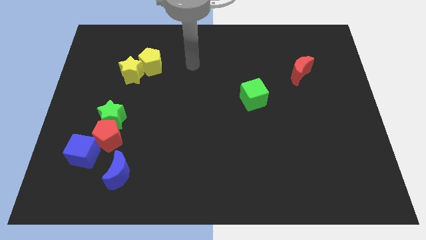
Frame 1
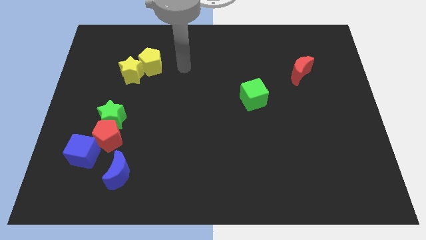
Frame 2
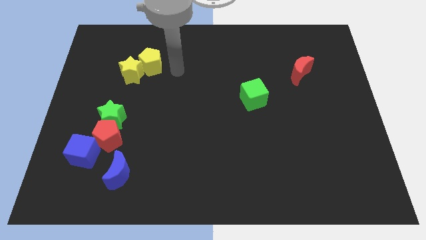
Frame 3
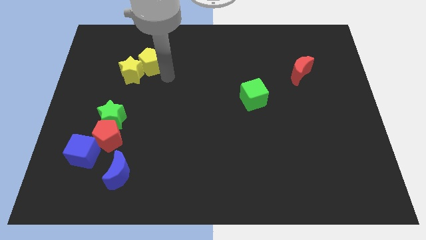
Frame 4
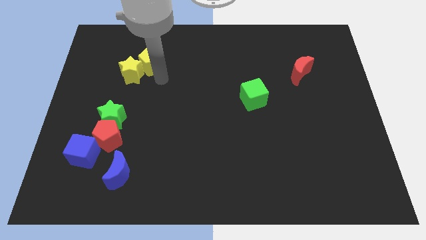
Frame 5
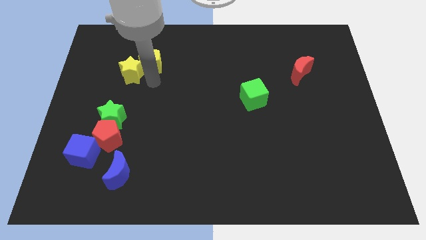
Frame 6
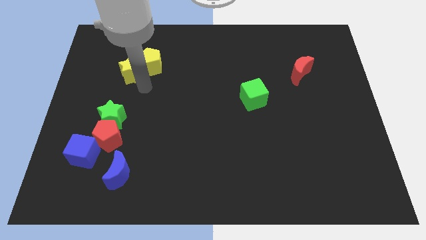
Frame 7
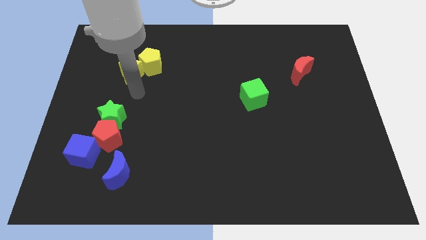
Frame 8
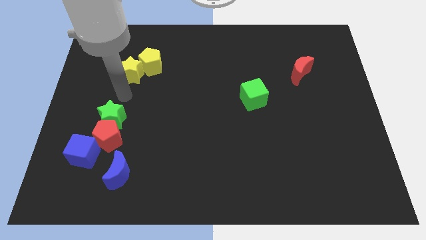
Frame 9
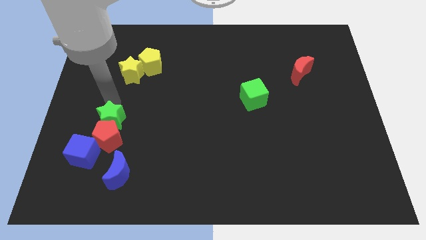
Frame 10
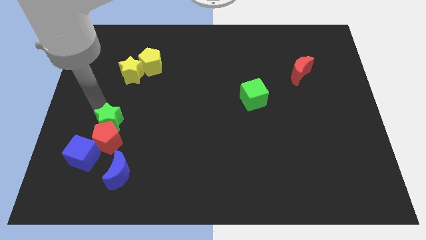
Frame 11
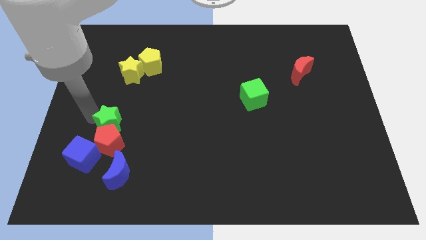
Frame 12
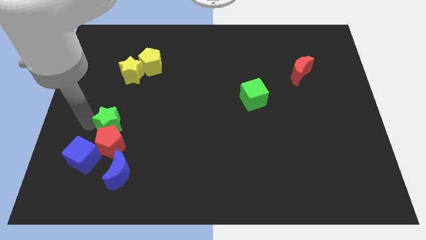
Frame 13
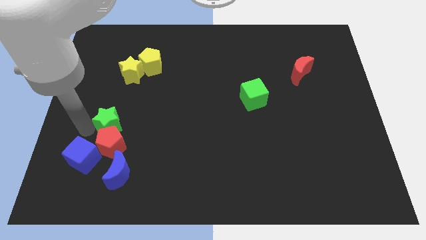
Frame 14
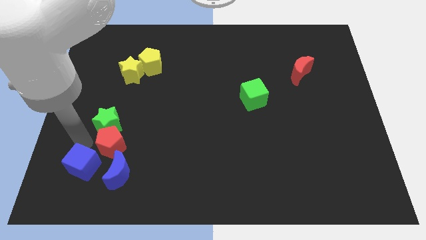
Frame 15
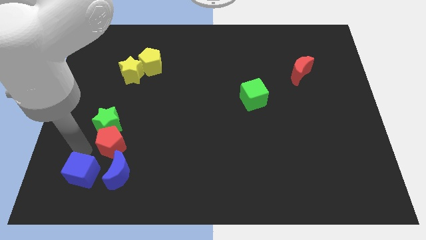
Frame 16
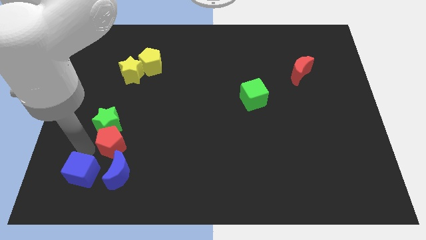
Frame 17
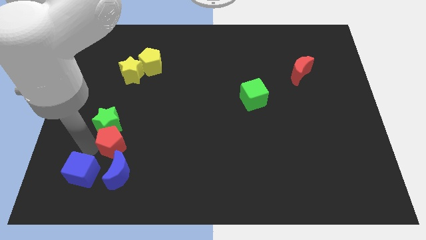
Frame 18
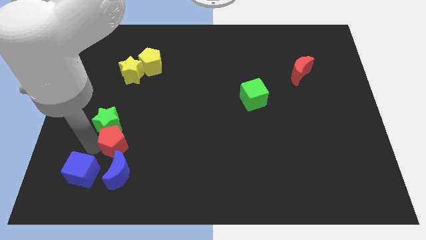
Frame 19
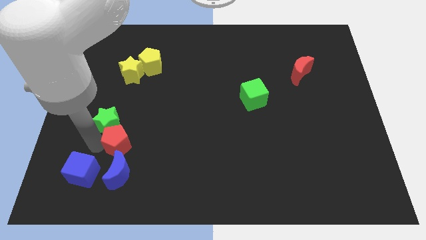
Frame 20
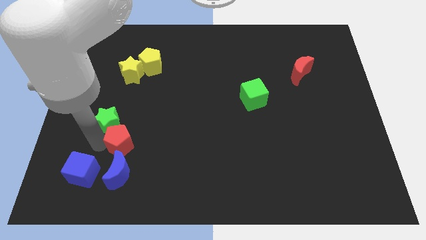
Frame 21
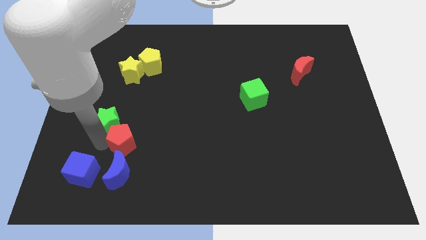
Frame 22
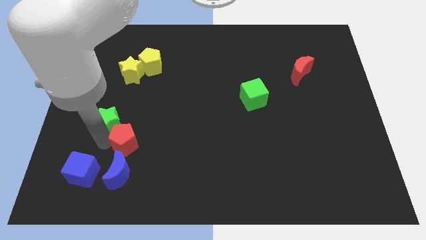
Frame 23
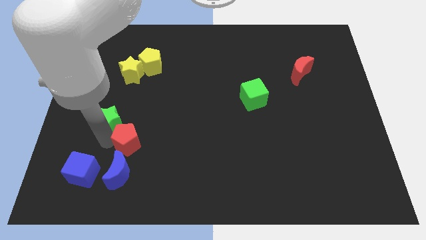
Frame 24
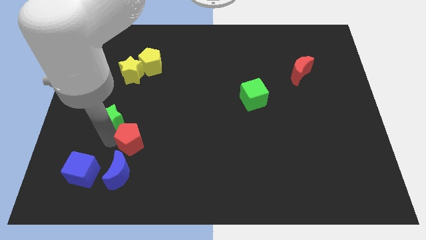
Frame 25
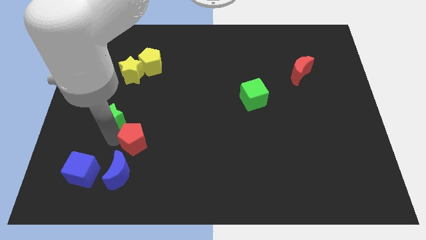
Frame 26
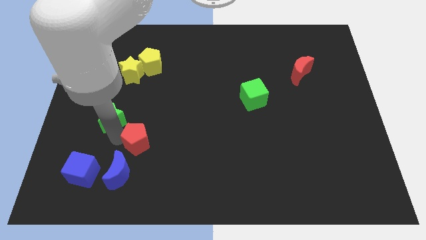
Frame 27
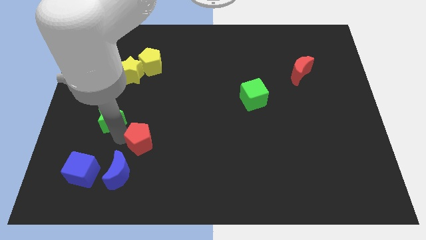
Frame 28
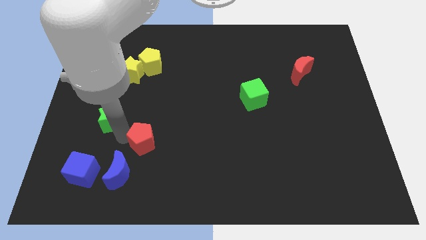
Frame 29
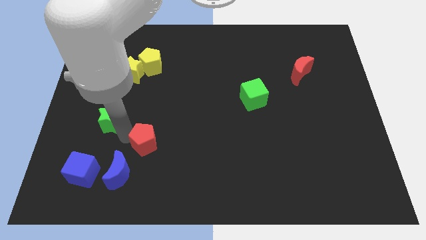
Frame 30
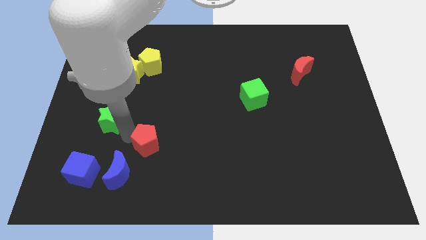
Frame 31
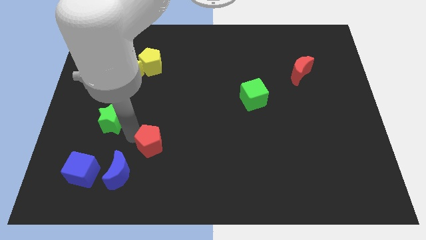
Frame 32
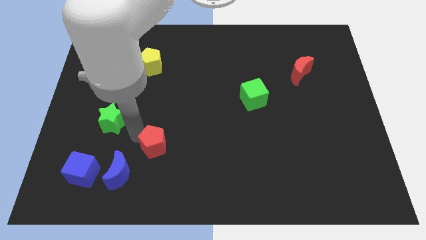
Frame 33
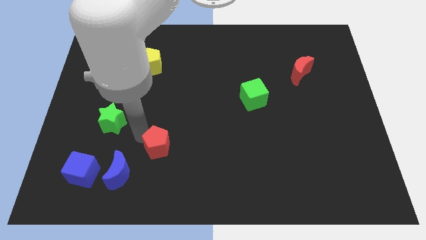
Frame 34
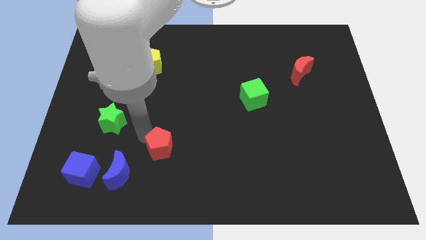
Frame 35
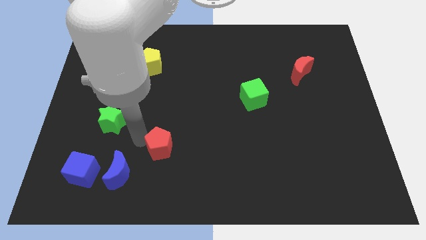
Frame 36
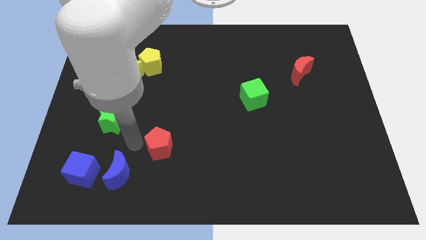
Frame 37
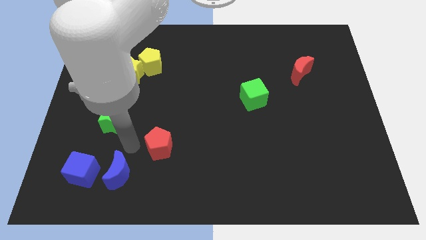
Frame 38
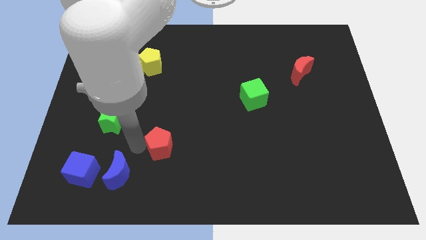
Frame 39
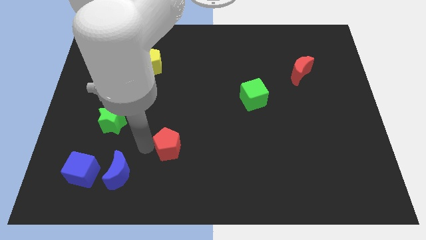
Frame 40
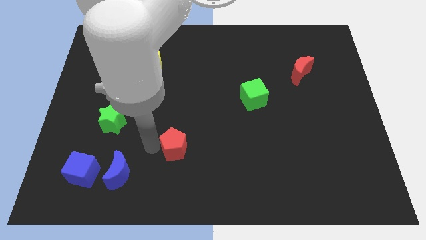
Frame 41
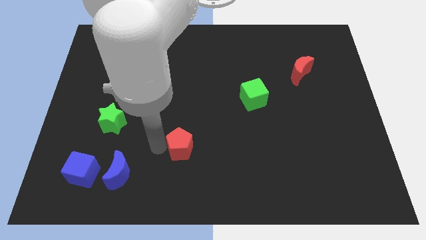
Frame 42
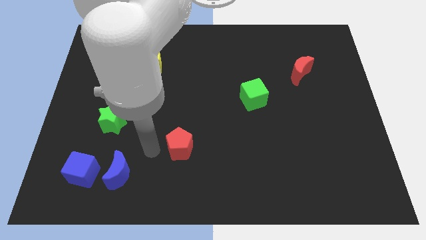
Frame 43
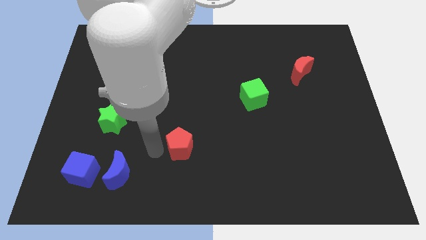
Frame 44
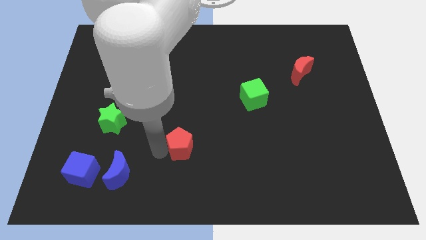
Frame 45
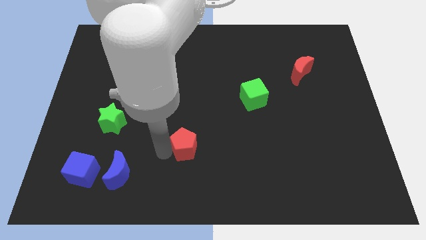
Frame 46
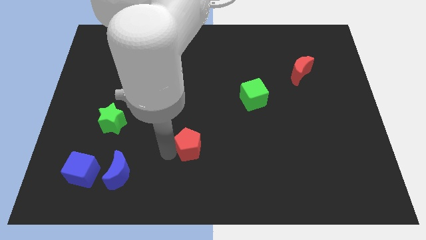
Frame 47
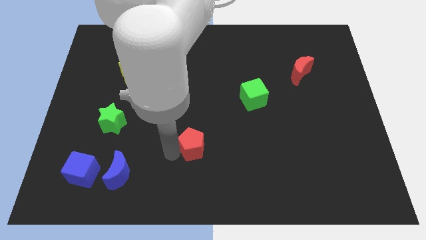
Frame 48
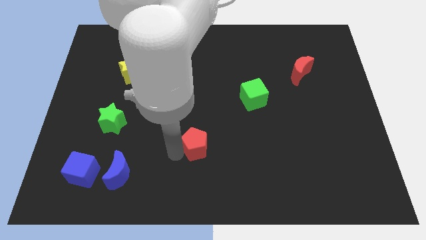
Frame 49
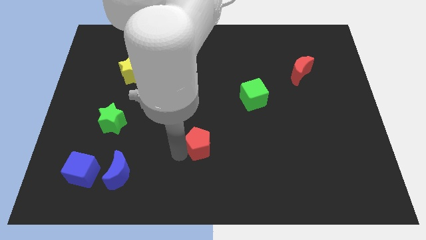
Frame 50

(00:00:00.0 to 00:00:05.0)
move the red pentagon to the right

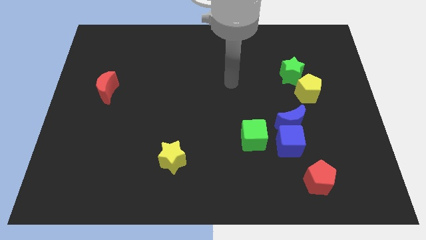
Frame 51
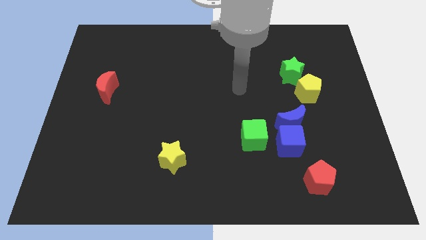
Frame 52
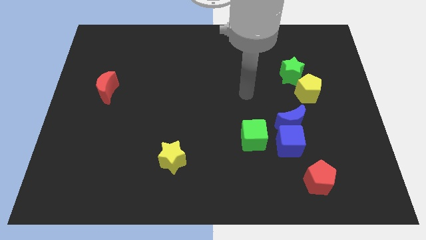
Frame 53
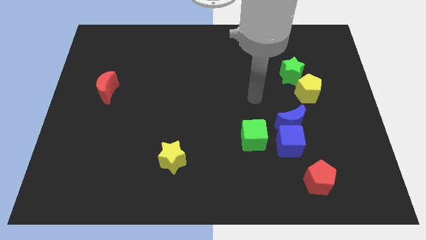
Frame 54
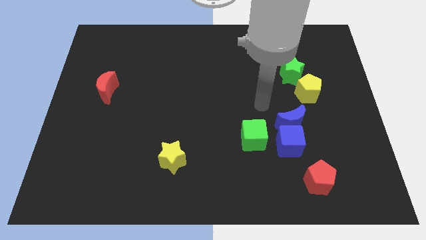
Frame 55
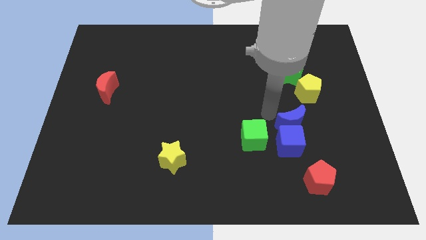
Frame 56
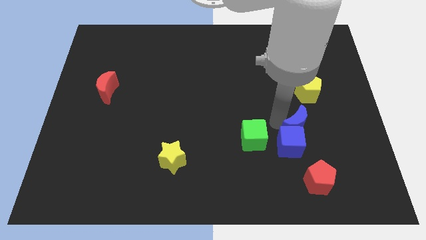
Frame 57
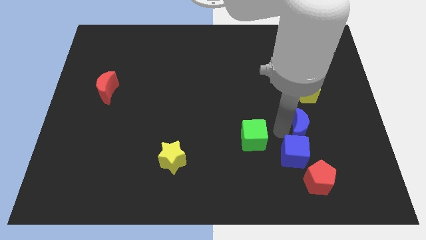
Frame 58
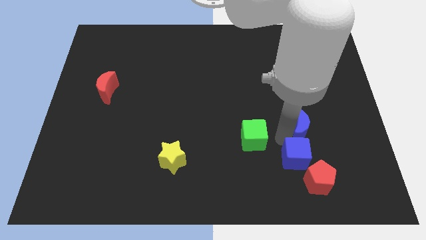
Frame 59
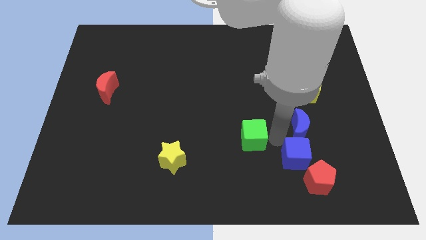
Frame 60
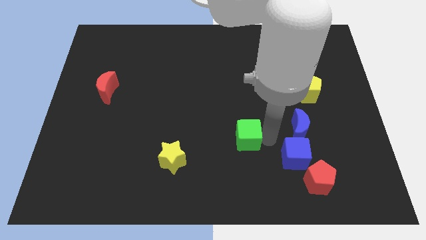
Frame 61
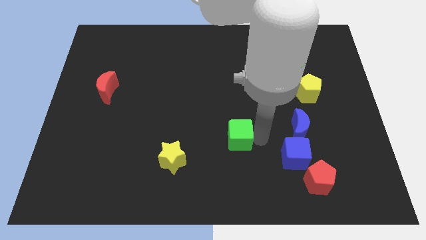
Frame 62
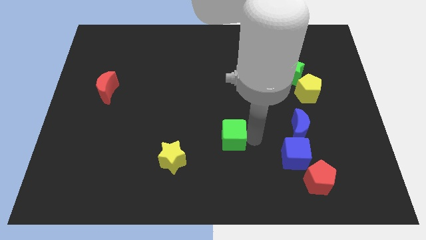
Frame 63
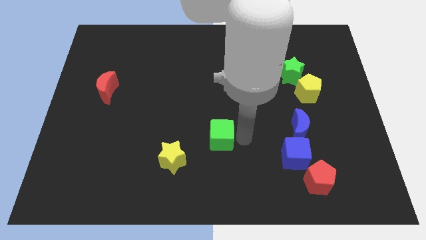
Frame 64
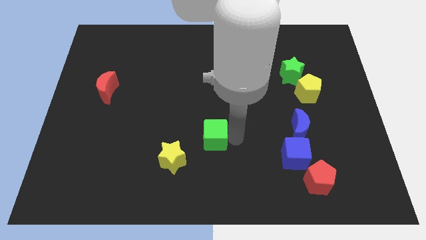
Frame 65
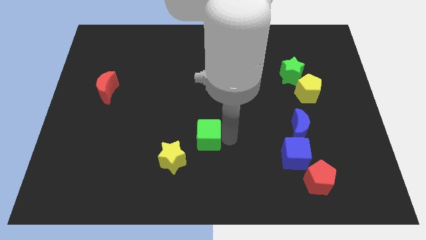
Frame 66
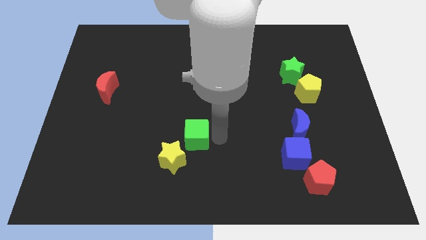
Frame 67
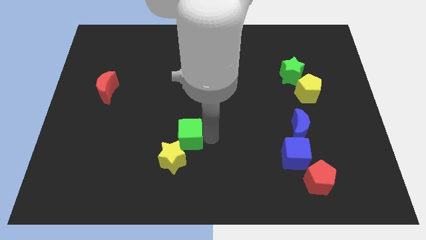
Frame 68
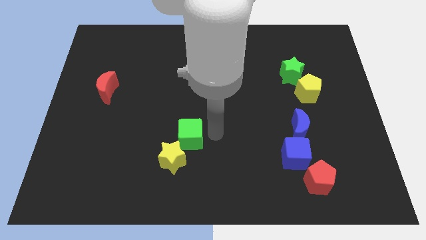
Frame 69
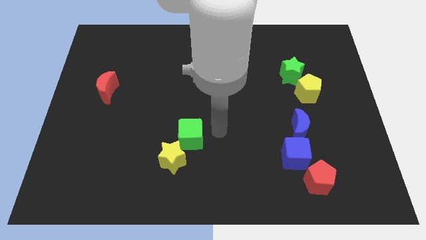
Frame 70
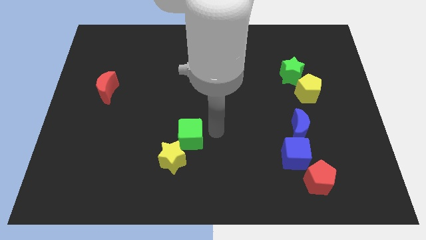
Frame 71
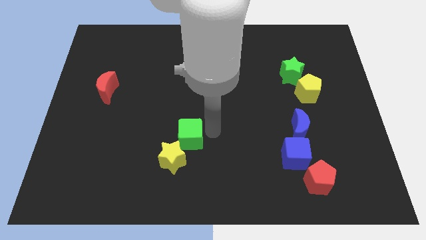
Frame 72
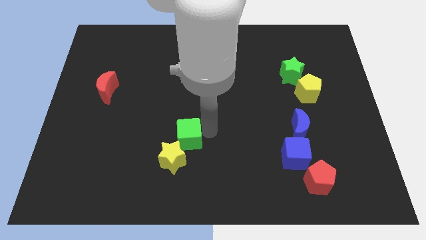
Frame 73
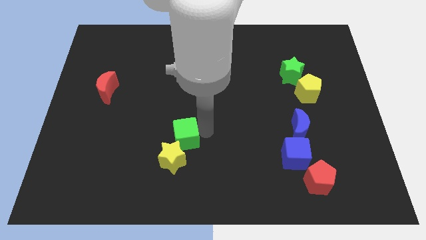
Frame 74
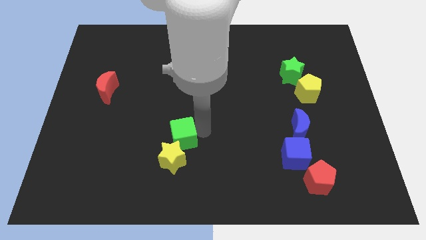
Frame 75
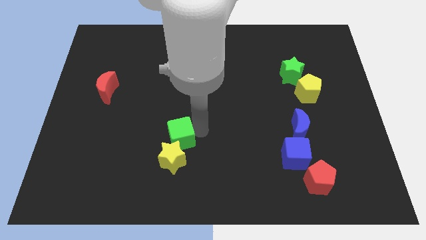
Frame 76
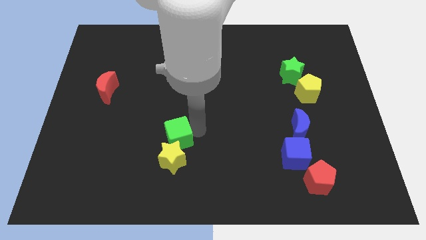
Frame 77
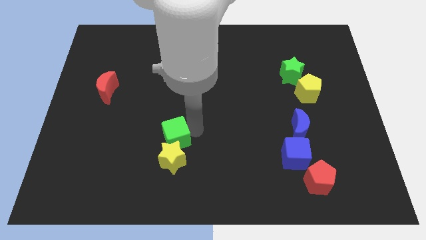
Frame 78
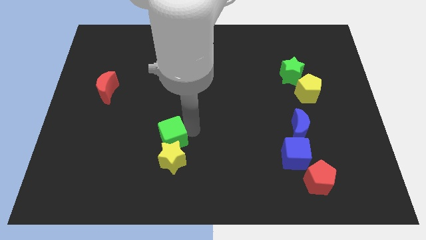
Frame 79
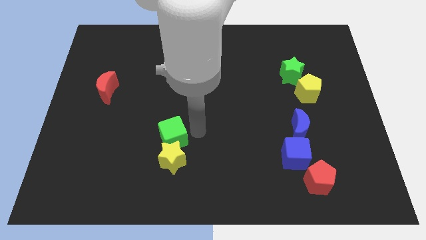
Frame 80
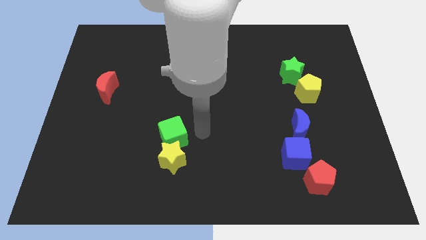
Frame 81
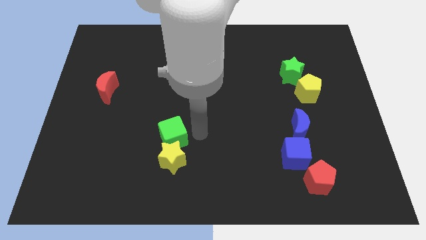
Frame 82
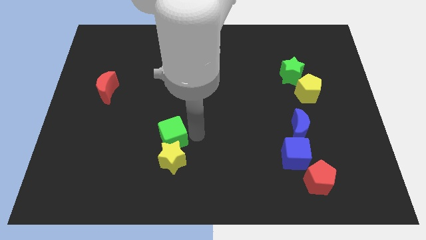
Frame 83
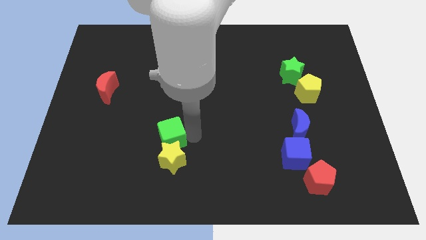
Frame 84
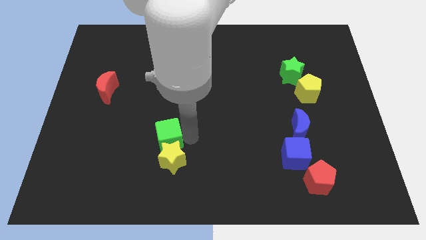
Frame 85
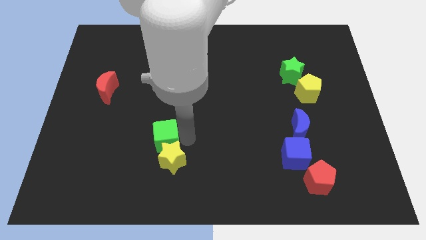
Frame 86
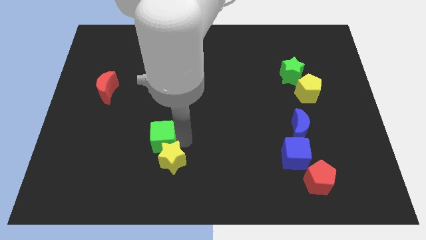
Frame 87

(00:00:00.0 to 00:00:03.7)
move the green cube left
